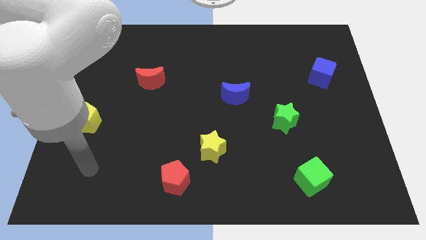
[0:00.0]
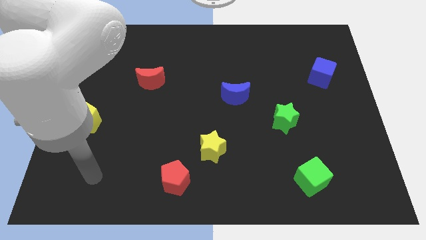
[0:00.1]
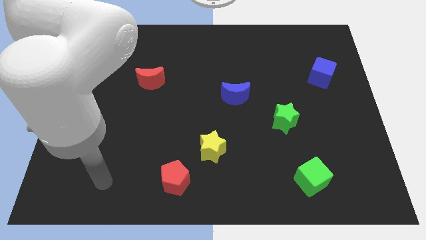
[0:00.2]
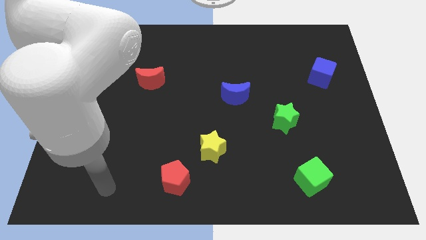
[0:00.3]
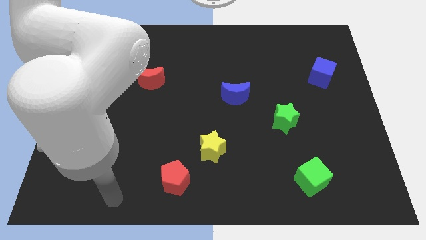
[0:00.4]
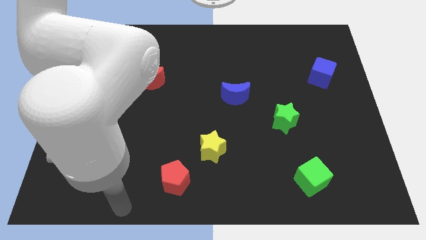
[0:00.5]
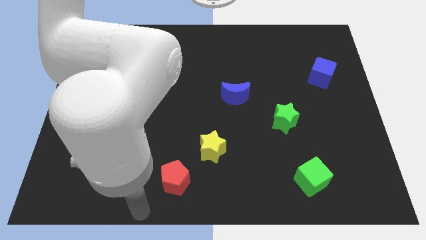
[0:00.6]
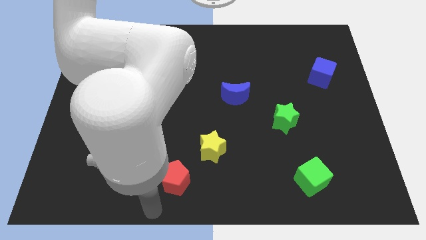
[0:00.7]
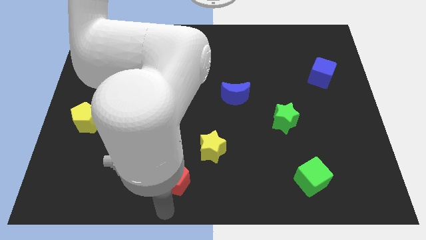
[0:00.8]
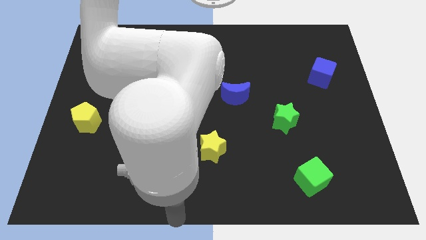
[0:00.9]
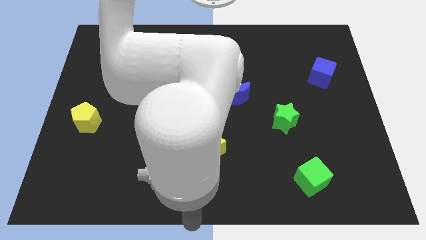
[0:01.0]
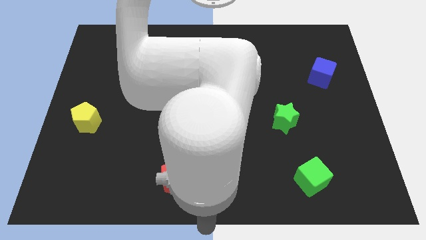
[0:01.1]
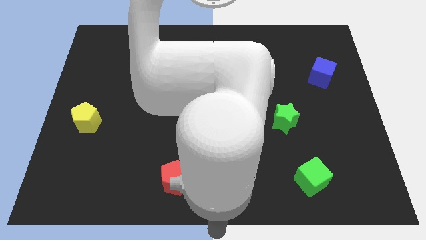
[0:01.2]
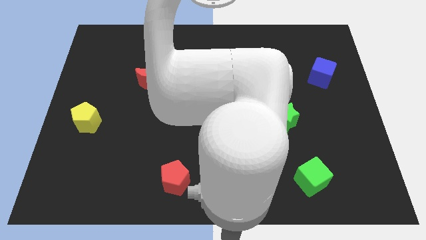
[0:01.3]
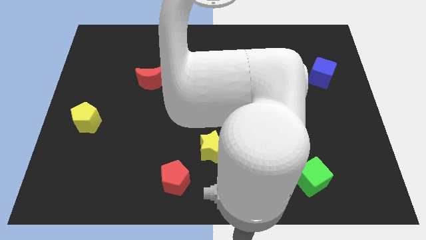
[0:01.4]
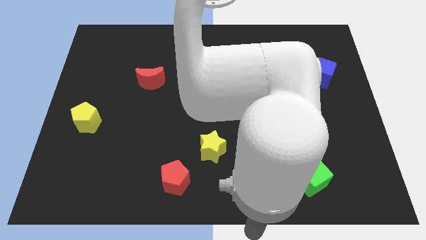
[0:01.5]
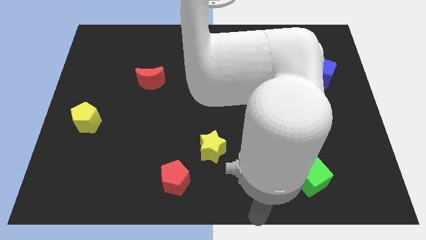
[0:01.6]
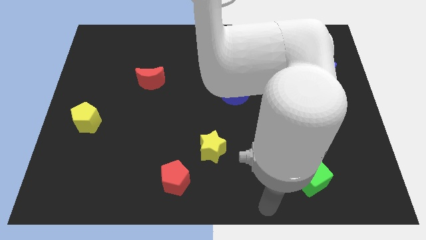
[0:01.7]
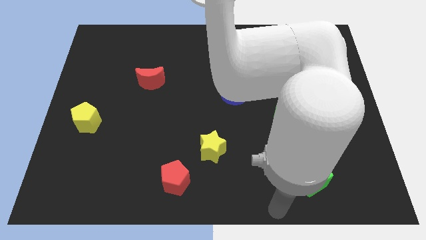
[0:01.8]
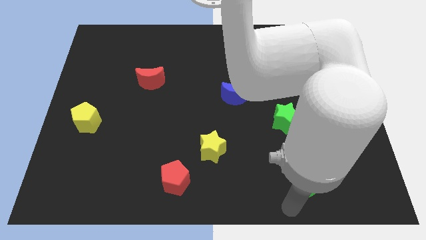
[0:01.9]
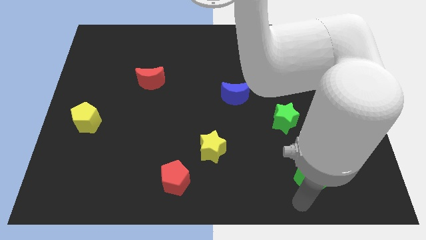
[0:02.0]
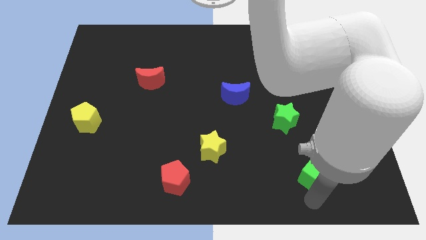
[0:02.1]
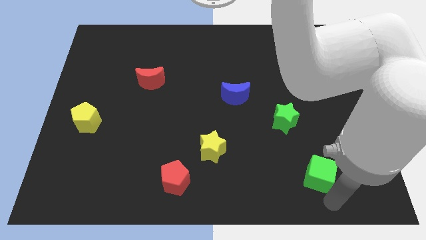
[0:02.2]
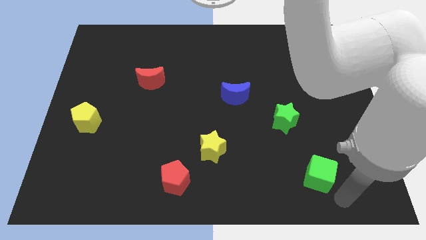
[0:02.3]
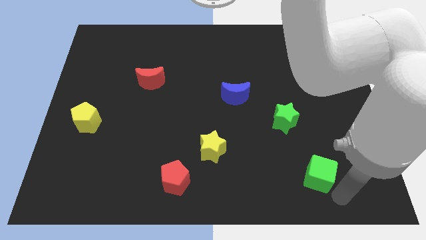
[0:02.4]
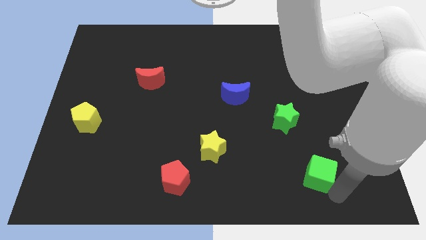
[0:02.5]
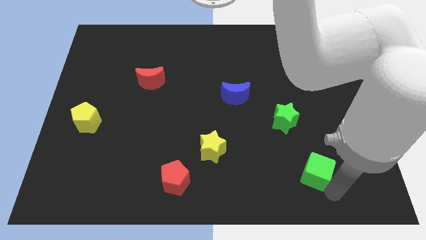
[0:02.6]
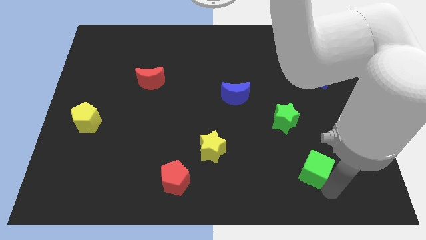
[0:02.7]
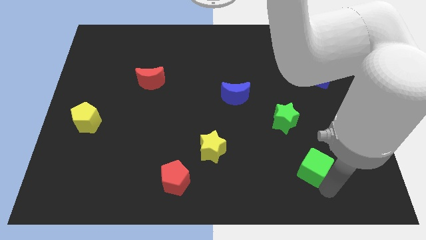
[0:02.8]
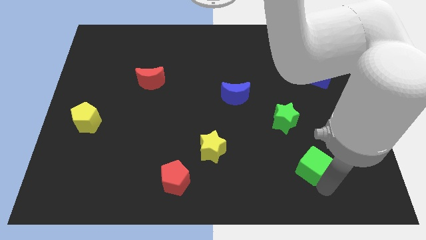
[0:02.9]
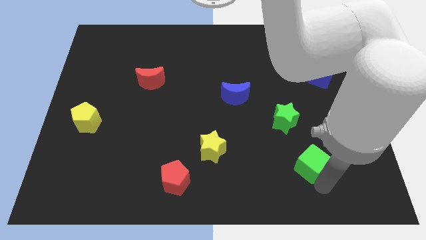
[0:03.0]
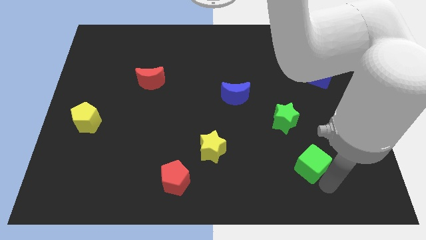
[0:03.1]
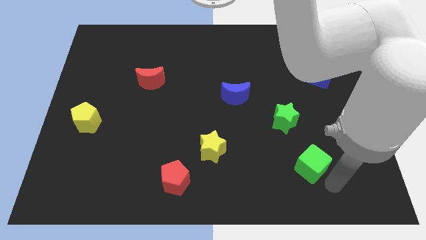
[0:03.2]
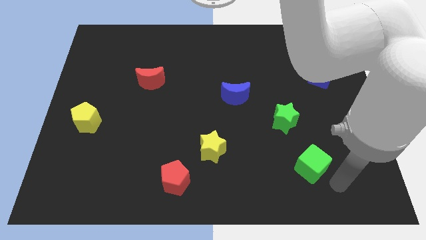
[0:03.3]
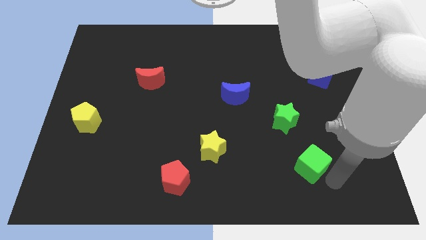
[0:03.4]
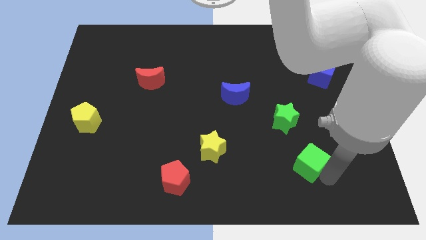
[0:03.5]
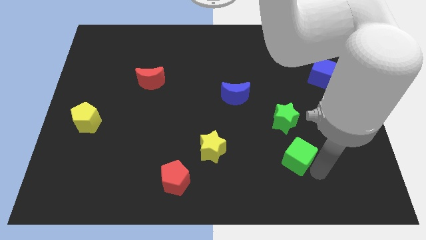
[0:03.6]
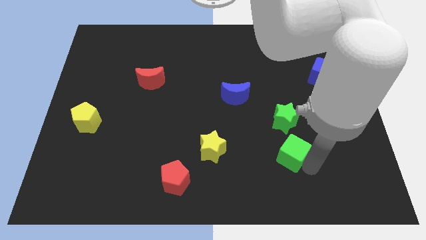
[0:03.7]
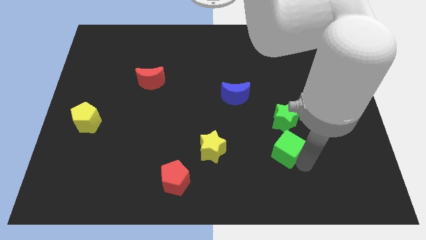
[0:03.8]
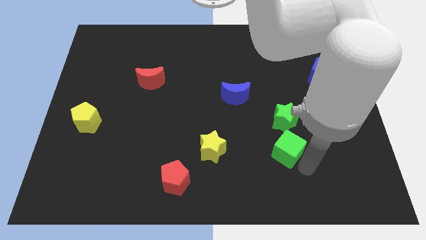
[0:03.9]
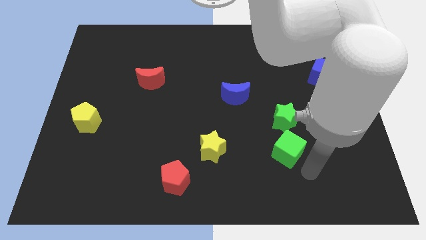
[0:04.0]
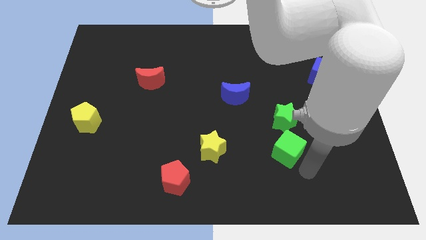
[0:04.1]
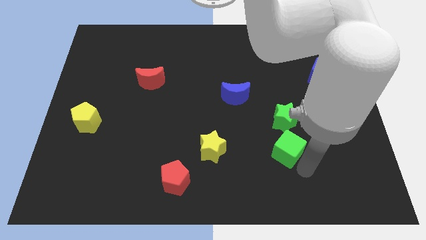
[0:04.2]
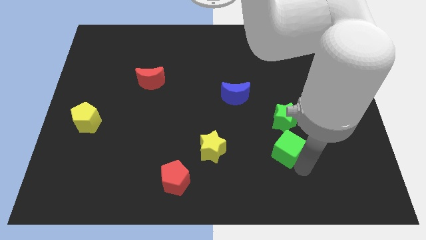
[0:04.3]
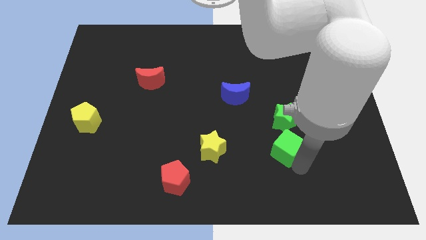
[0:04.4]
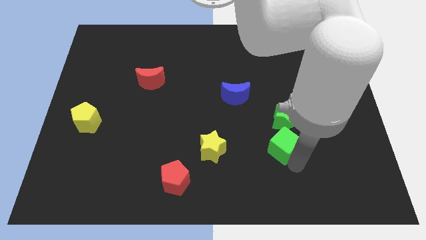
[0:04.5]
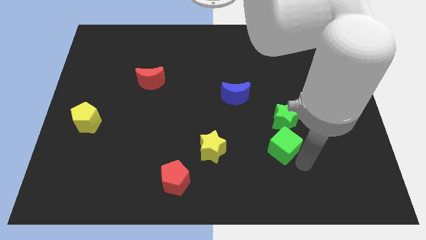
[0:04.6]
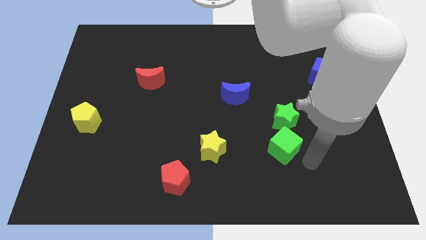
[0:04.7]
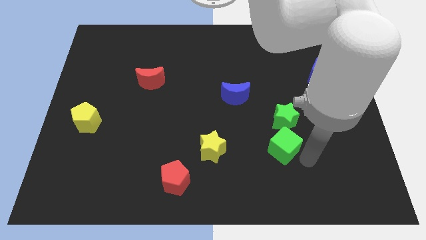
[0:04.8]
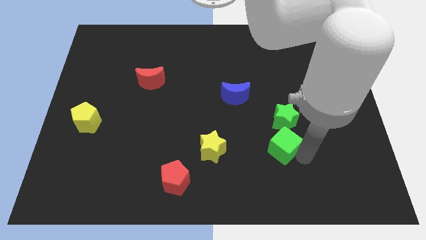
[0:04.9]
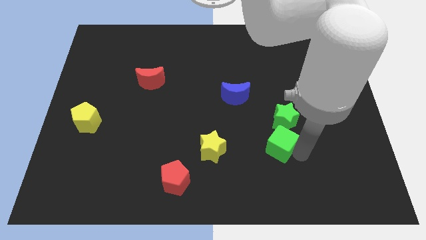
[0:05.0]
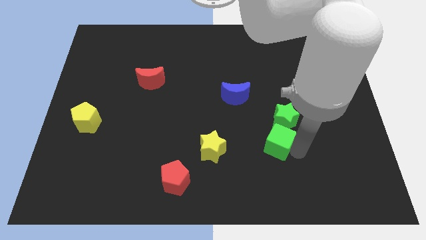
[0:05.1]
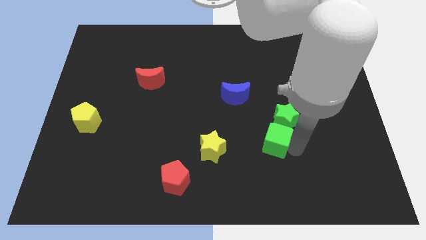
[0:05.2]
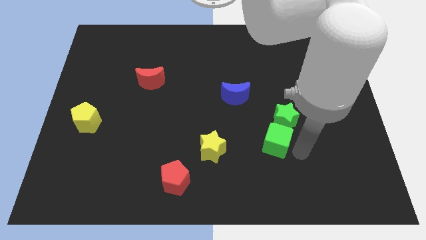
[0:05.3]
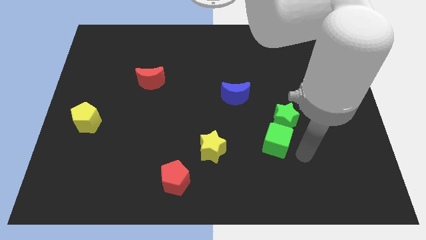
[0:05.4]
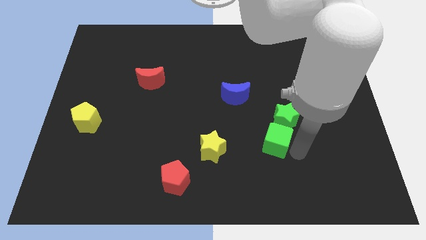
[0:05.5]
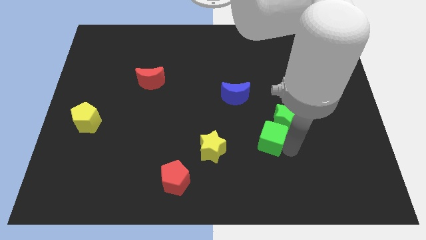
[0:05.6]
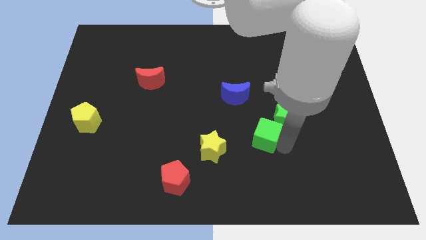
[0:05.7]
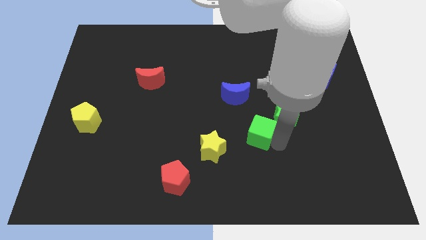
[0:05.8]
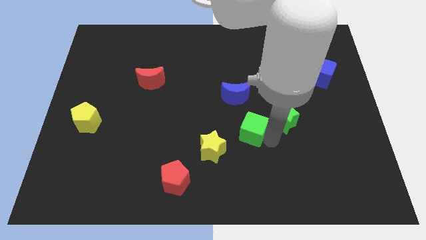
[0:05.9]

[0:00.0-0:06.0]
put the green cube to the center of the board
